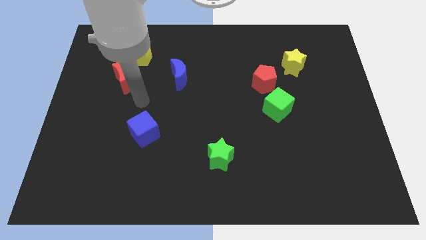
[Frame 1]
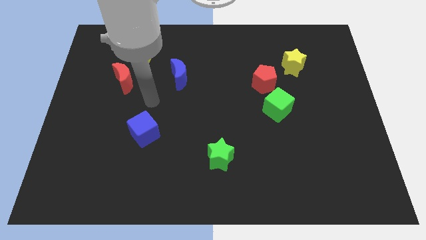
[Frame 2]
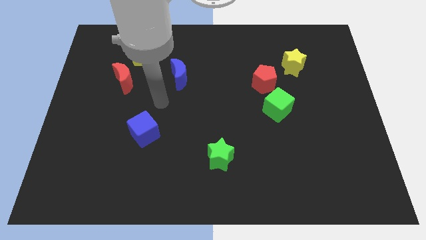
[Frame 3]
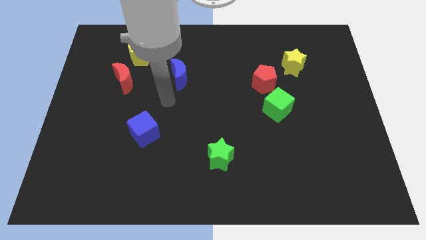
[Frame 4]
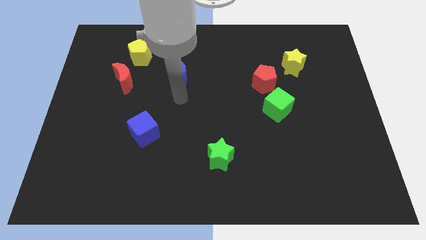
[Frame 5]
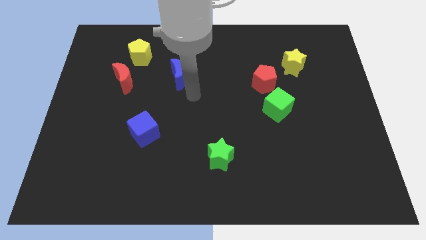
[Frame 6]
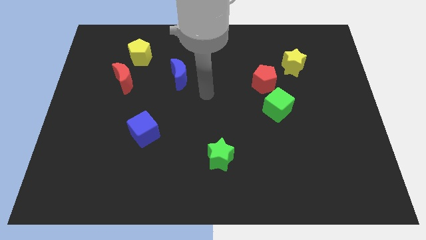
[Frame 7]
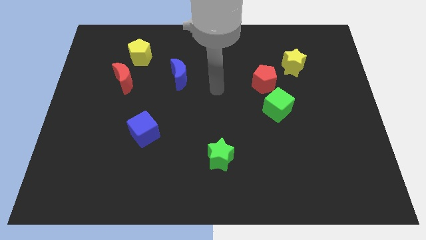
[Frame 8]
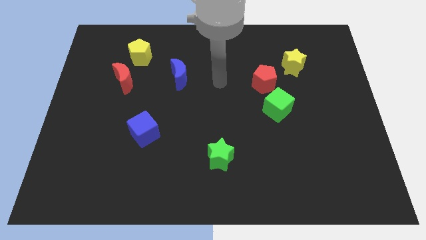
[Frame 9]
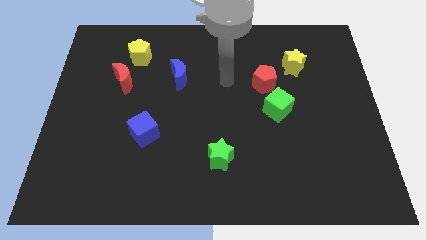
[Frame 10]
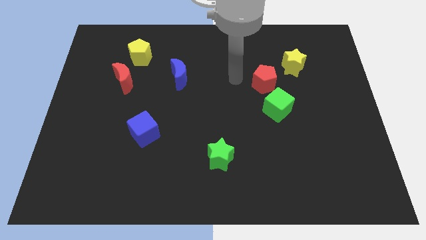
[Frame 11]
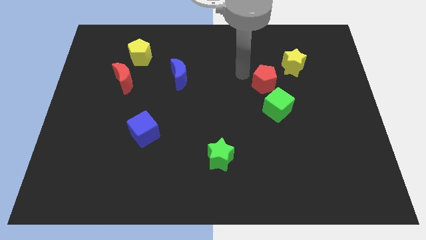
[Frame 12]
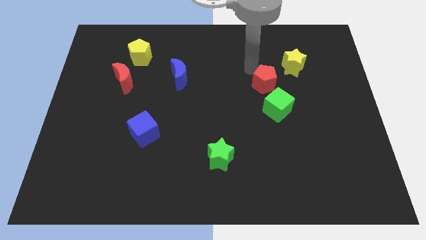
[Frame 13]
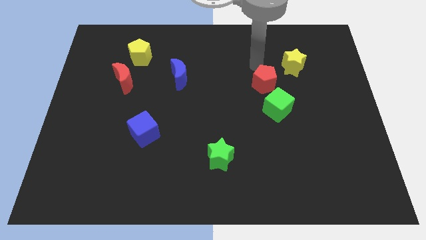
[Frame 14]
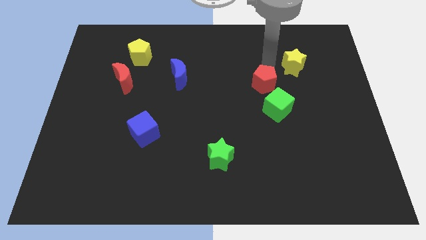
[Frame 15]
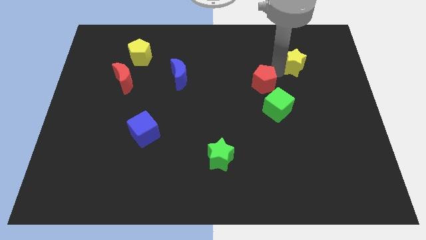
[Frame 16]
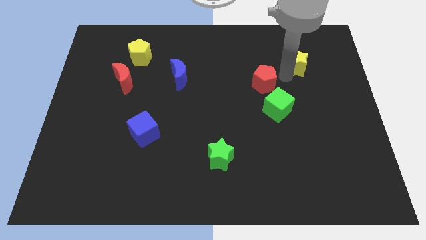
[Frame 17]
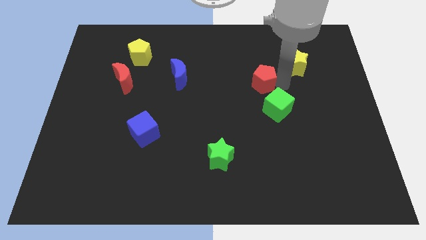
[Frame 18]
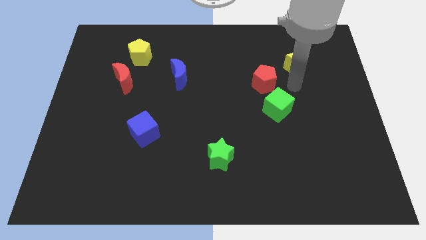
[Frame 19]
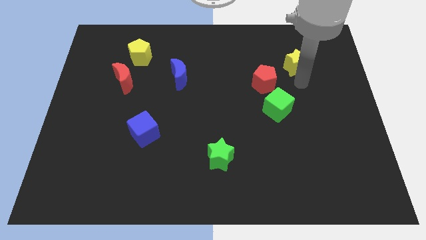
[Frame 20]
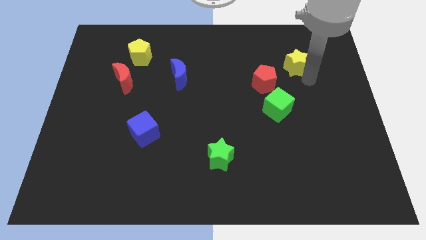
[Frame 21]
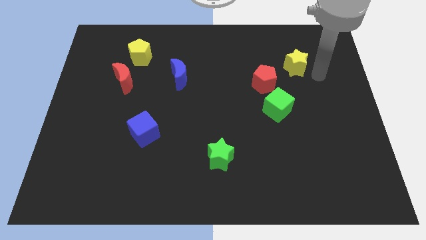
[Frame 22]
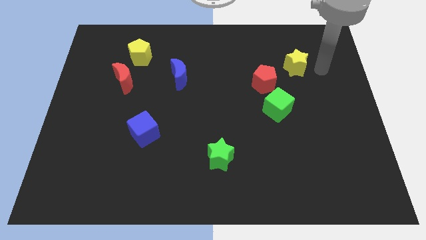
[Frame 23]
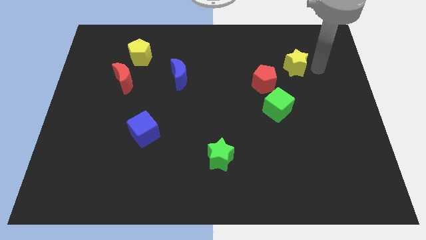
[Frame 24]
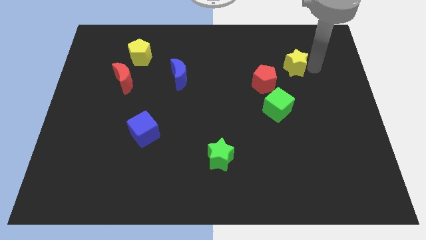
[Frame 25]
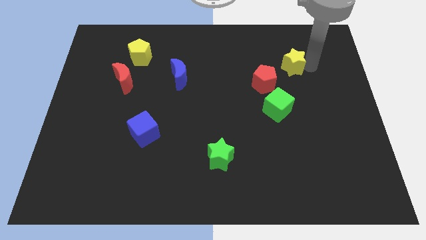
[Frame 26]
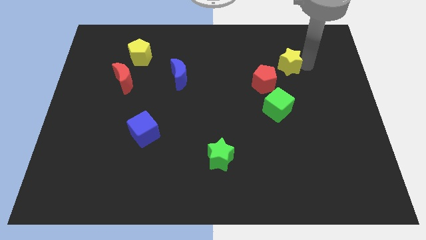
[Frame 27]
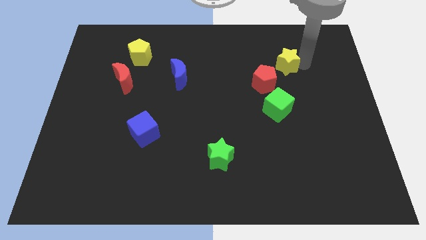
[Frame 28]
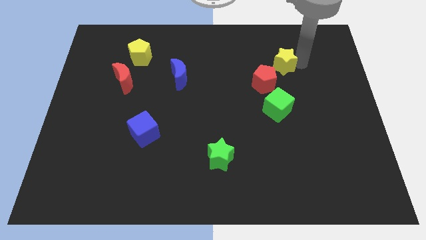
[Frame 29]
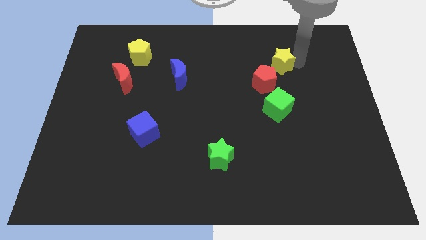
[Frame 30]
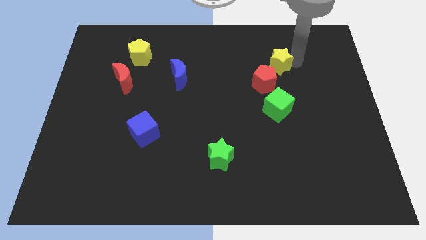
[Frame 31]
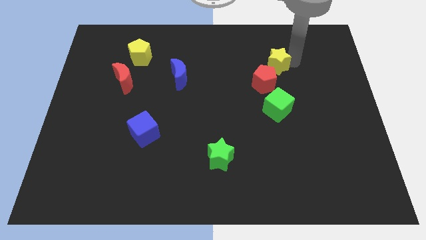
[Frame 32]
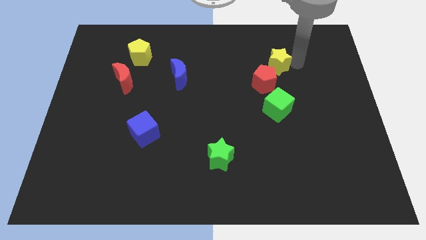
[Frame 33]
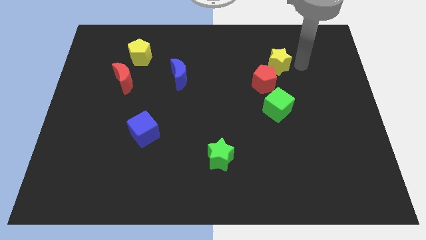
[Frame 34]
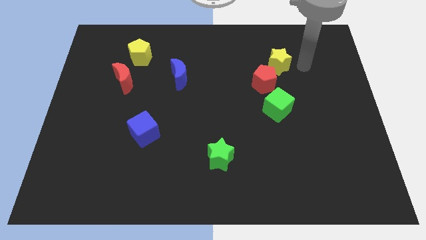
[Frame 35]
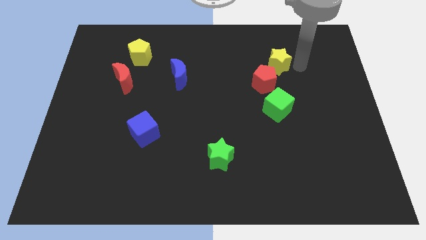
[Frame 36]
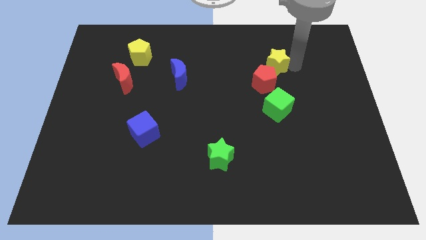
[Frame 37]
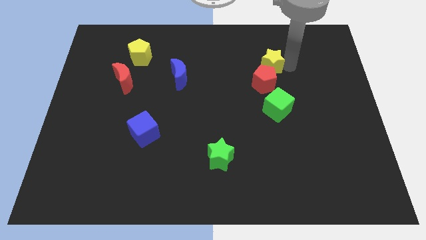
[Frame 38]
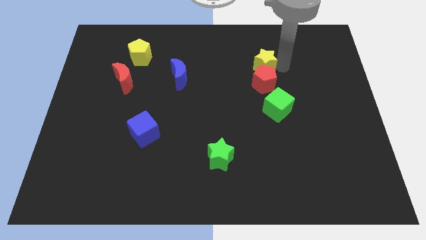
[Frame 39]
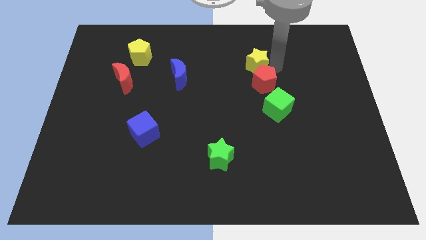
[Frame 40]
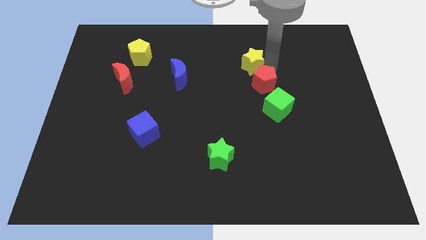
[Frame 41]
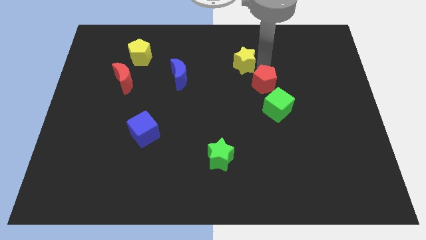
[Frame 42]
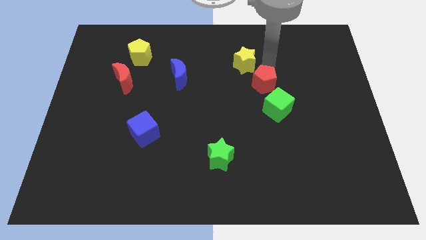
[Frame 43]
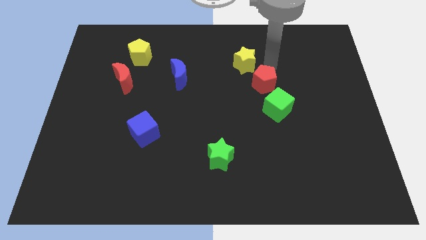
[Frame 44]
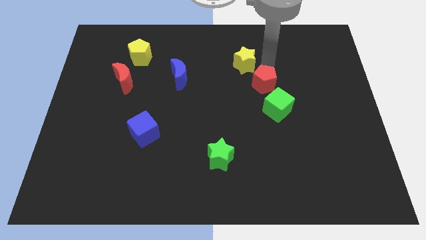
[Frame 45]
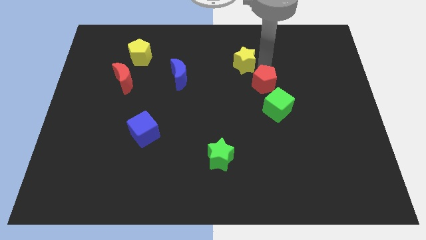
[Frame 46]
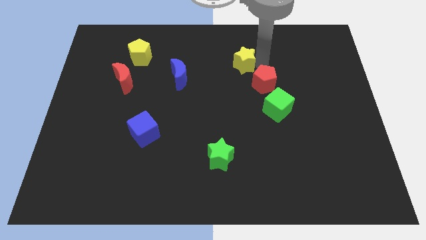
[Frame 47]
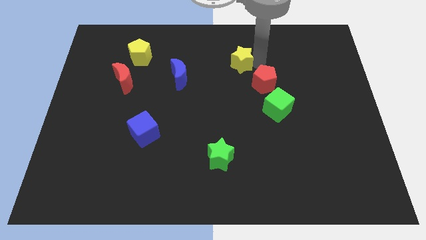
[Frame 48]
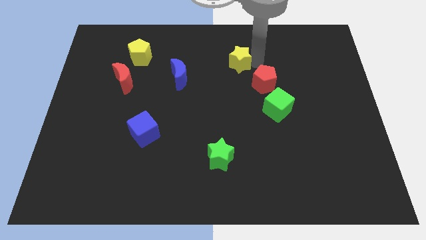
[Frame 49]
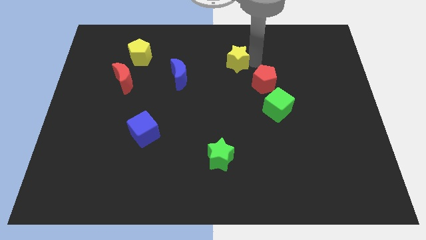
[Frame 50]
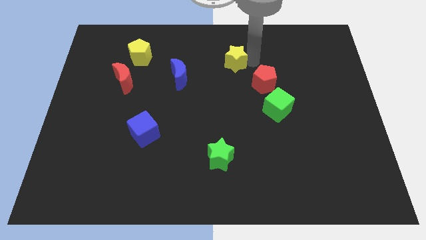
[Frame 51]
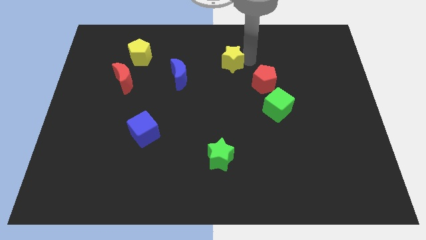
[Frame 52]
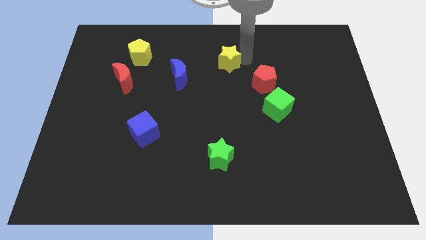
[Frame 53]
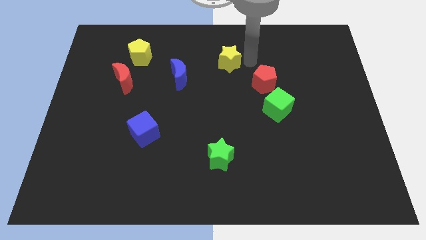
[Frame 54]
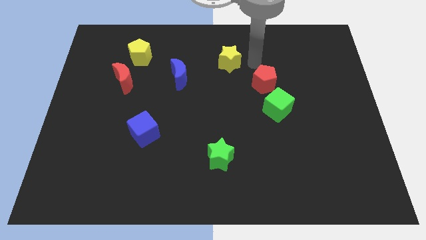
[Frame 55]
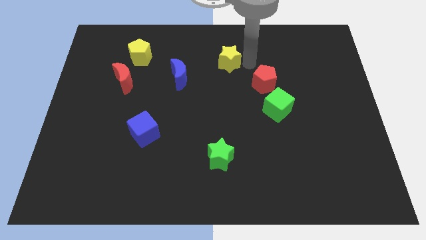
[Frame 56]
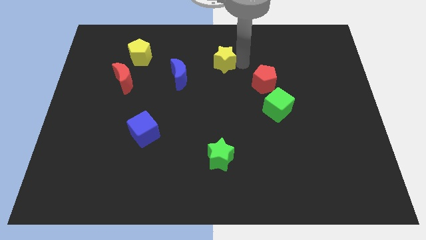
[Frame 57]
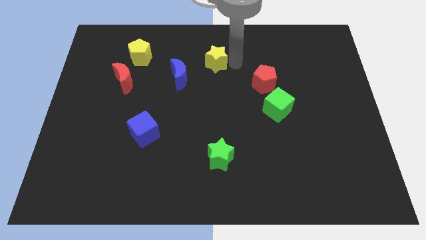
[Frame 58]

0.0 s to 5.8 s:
move the yellow star diagonally up and to the right of the blue moon

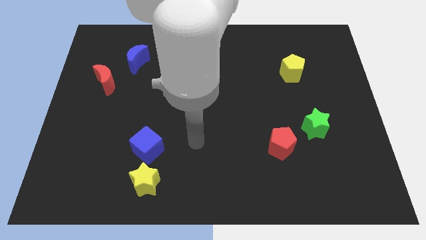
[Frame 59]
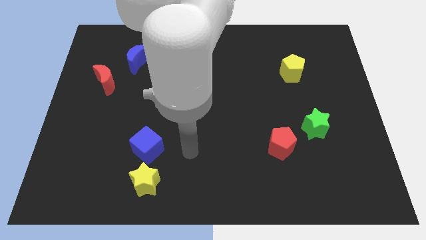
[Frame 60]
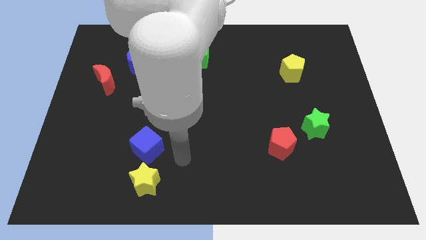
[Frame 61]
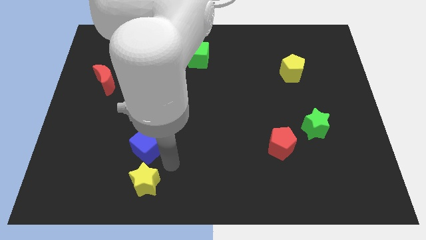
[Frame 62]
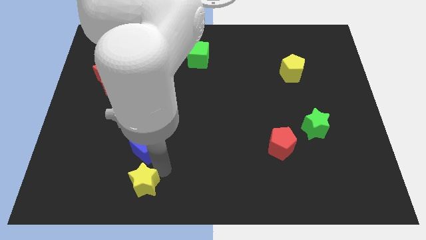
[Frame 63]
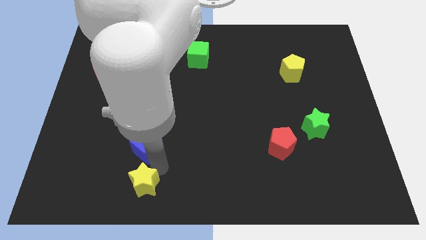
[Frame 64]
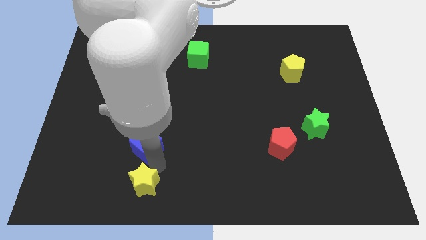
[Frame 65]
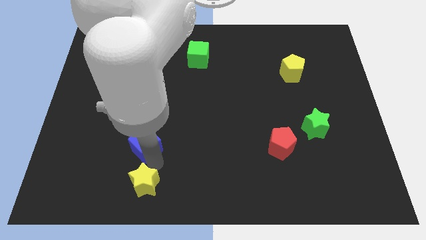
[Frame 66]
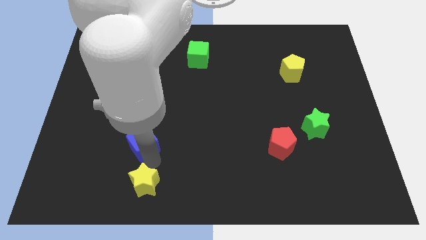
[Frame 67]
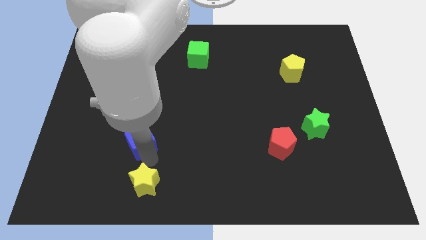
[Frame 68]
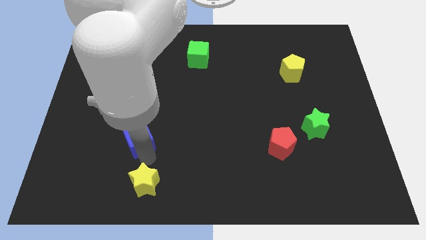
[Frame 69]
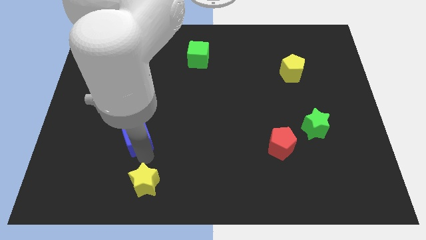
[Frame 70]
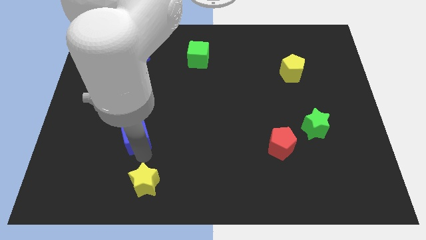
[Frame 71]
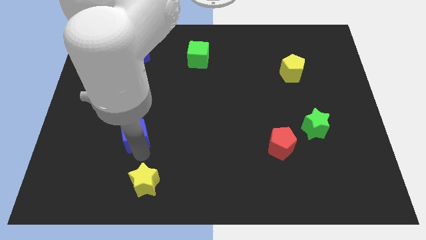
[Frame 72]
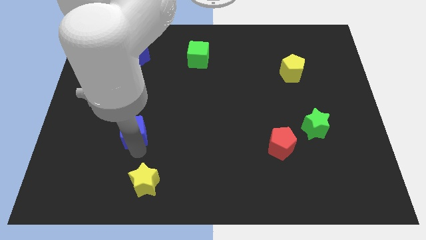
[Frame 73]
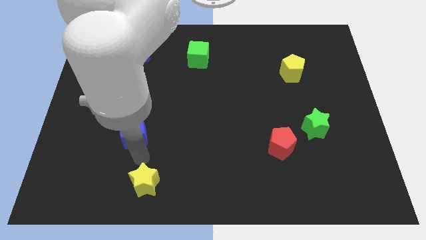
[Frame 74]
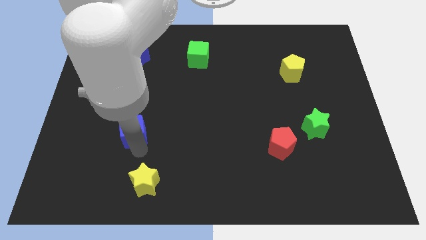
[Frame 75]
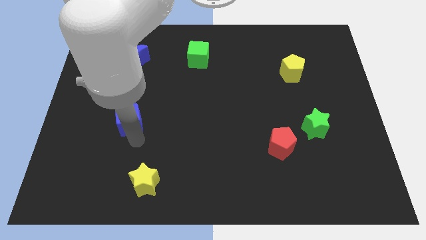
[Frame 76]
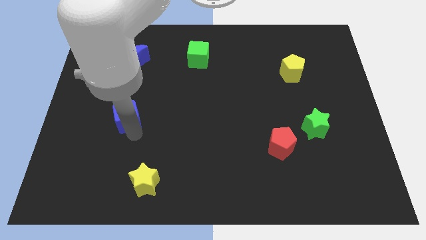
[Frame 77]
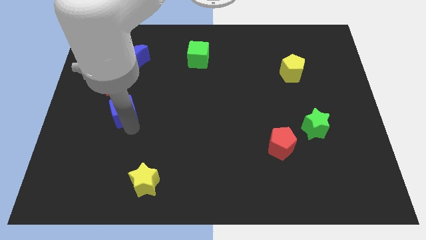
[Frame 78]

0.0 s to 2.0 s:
move the blue cube diagonally down and to the right of the red moon
